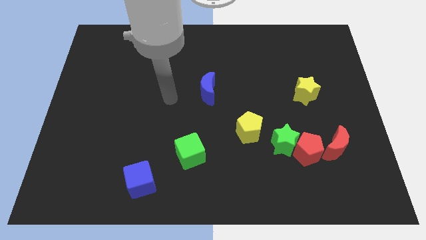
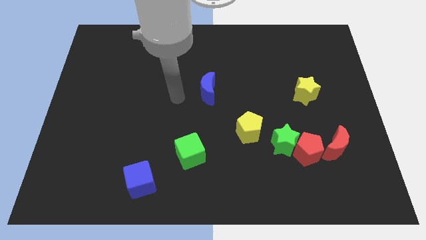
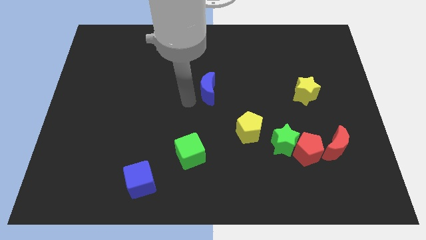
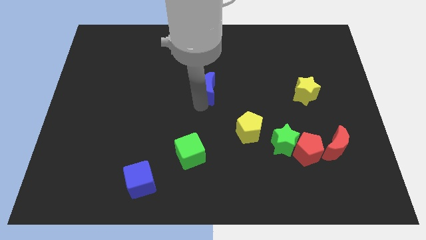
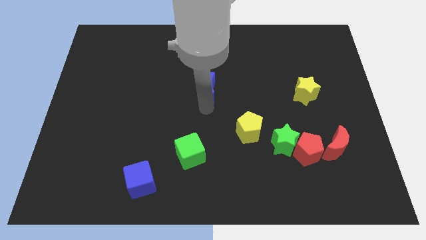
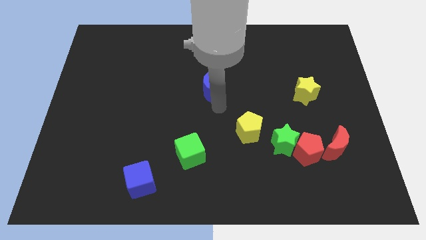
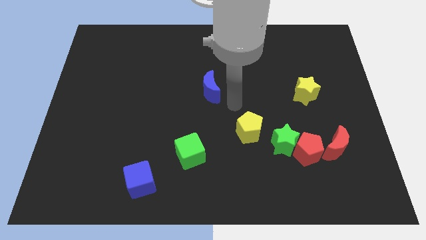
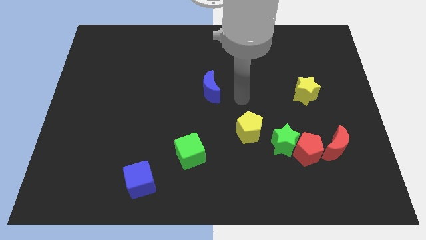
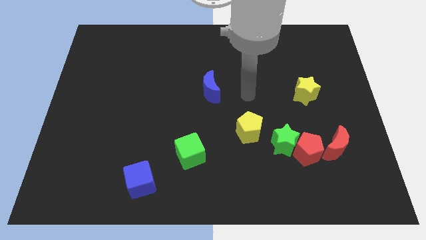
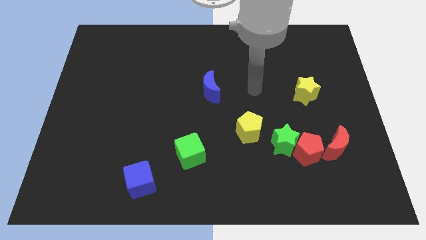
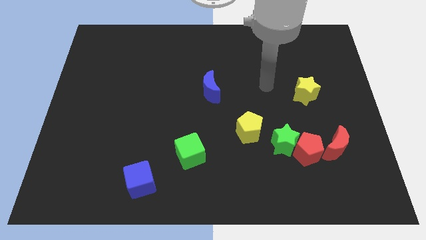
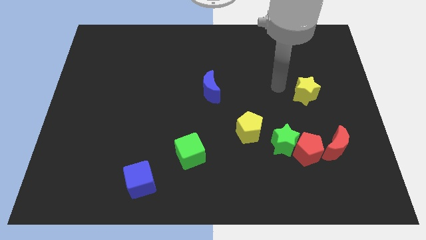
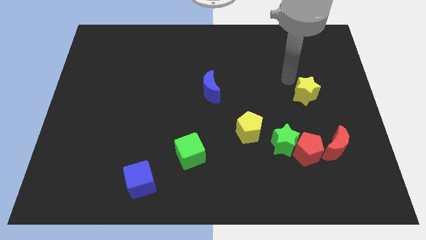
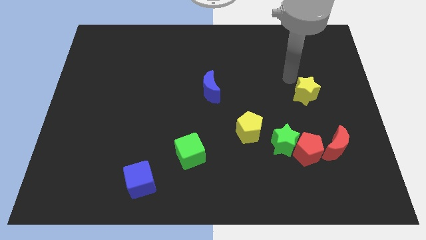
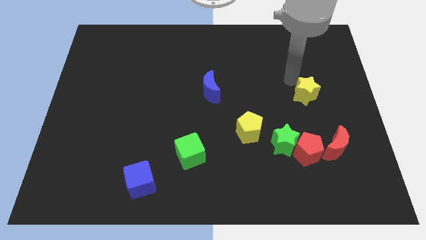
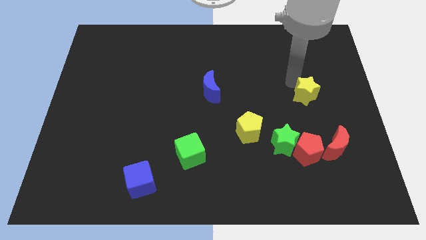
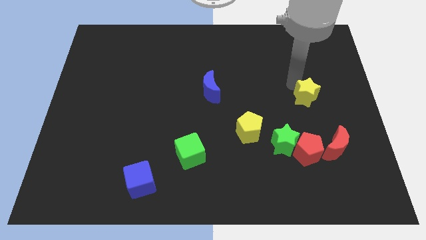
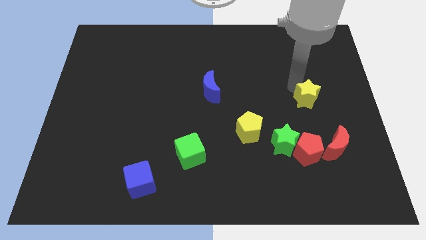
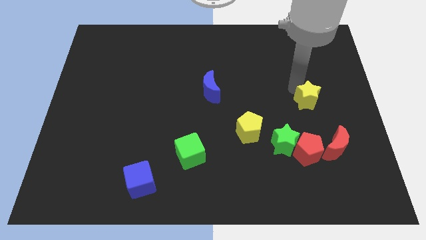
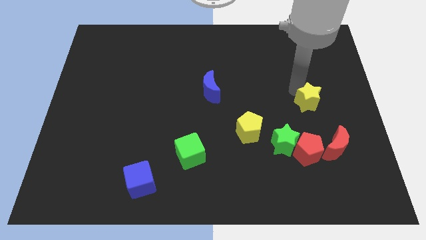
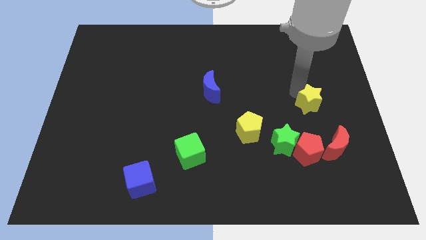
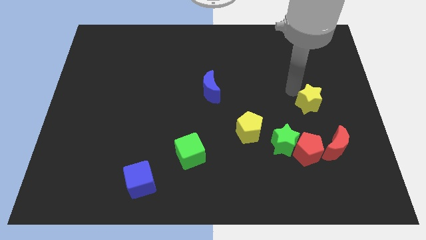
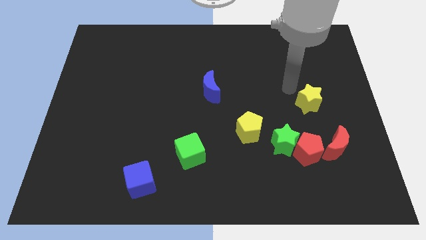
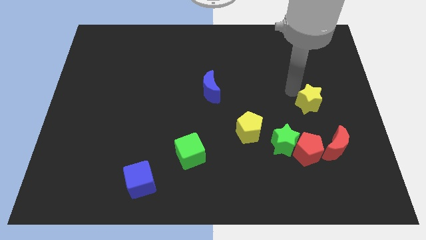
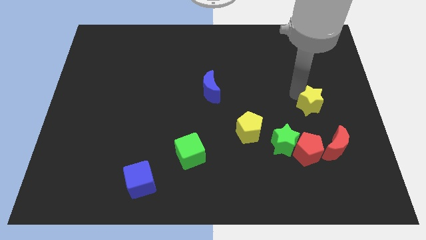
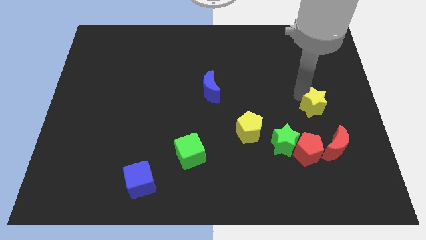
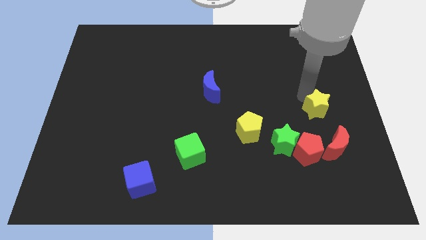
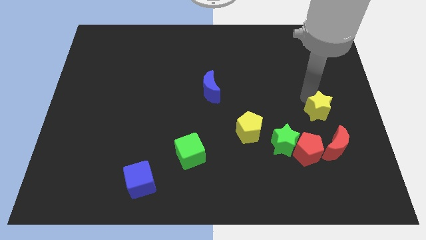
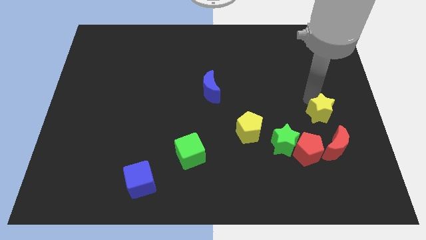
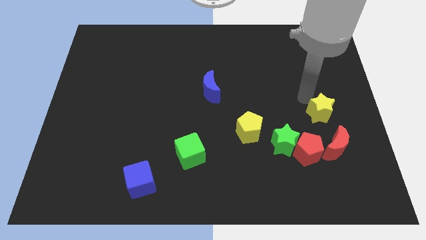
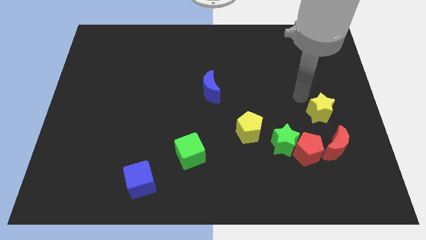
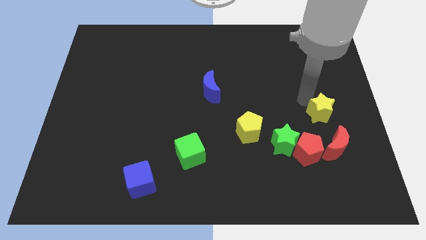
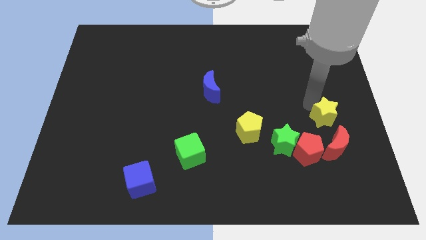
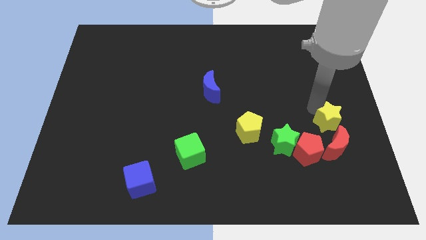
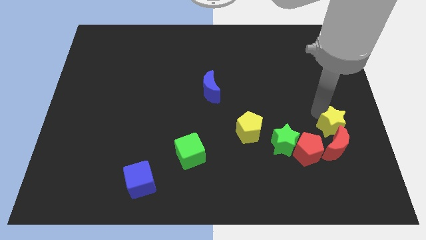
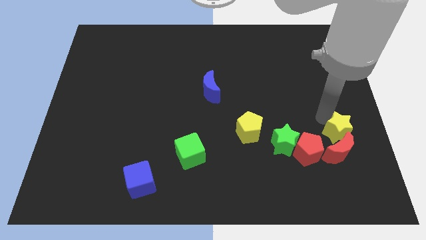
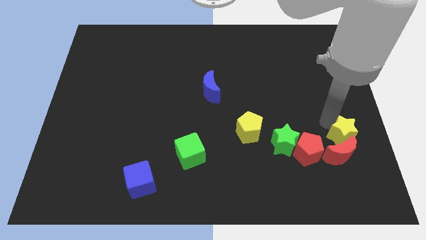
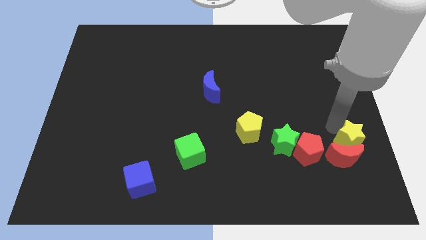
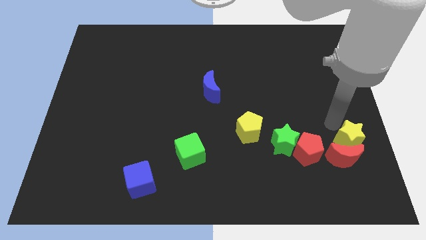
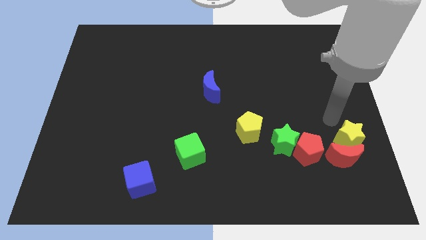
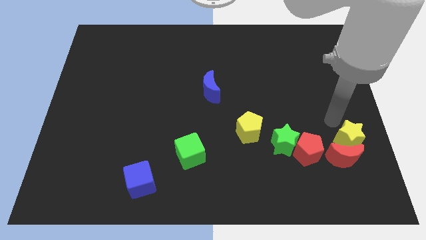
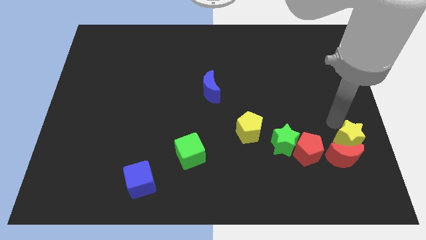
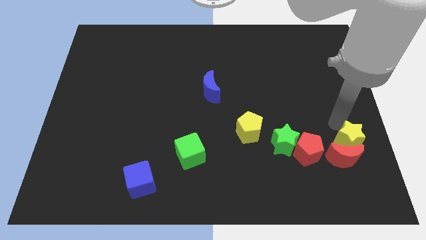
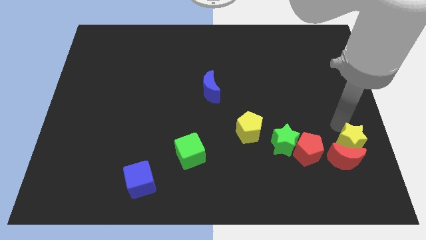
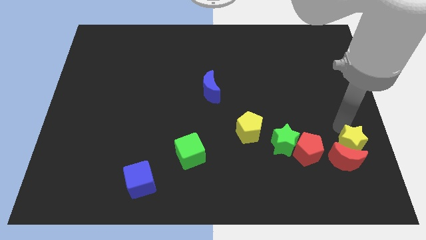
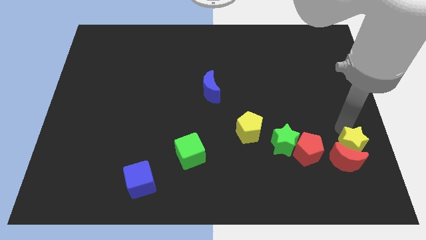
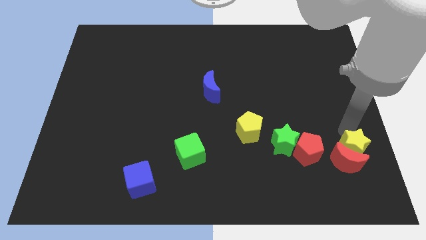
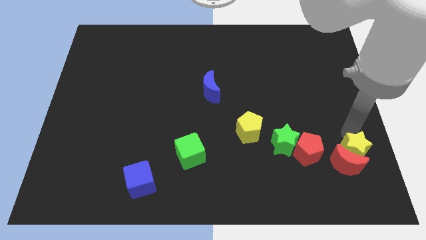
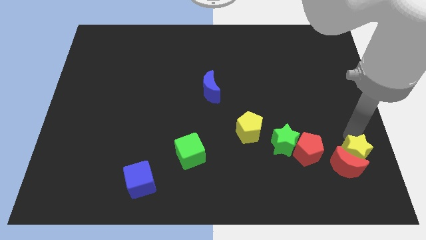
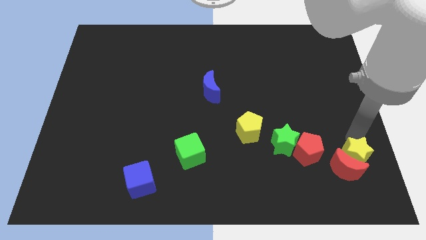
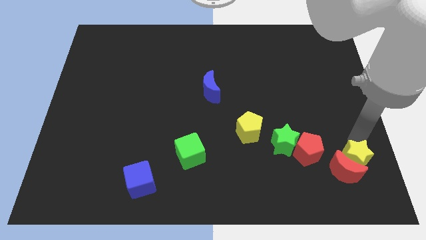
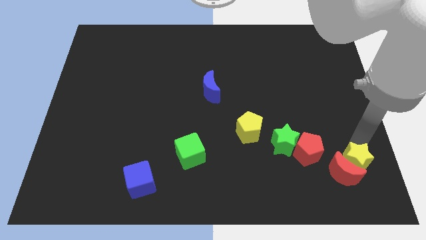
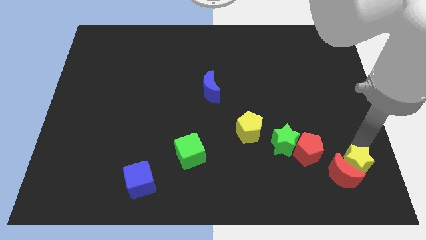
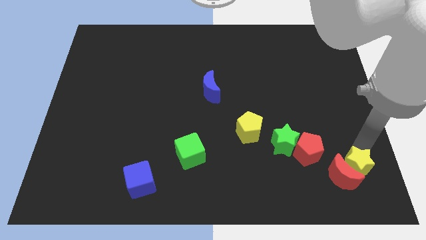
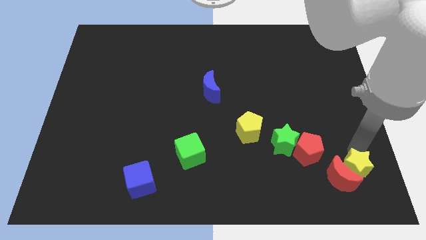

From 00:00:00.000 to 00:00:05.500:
slide the yellow star to the bottom right of the board

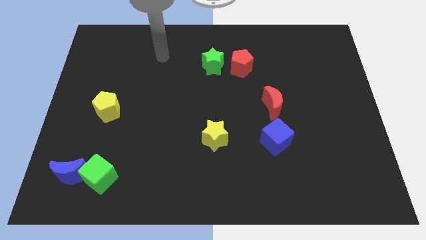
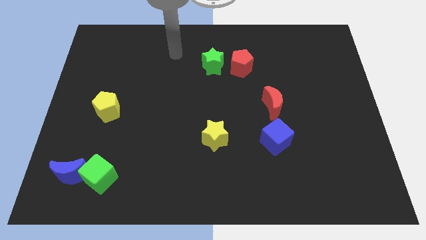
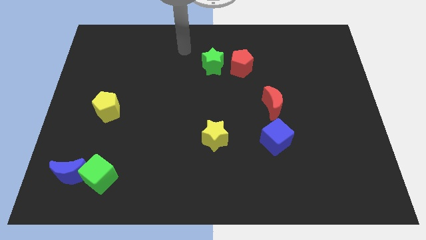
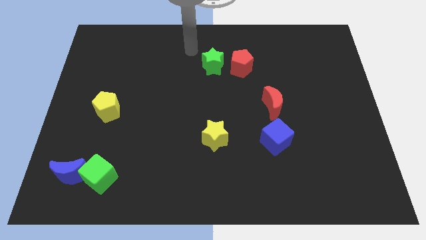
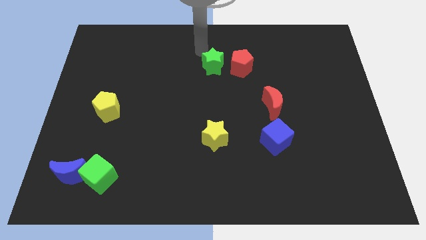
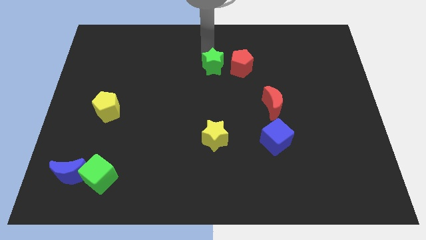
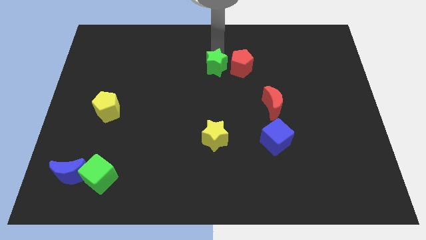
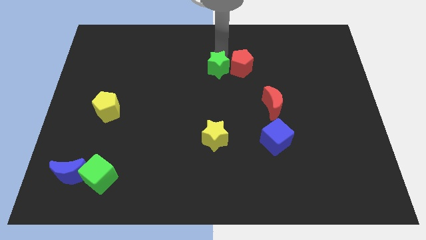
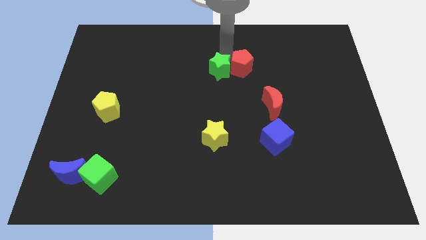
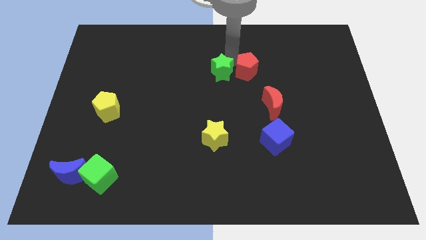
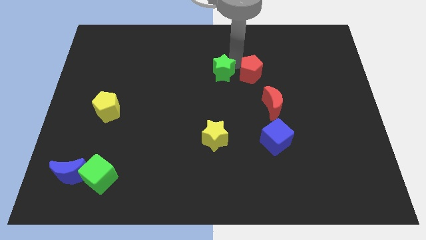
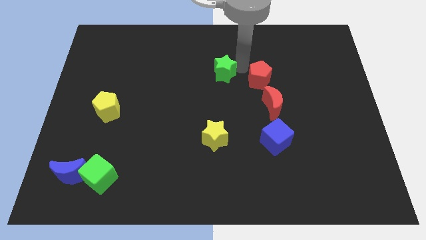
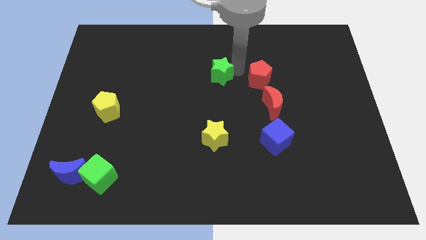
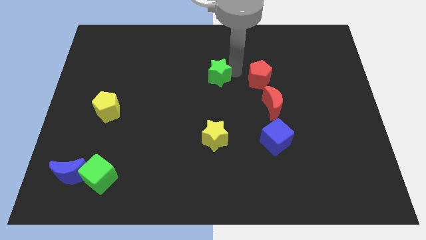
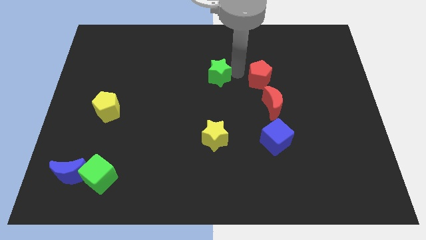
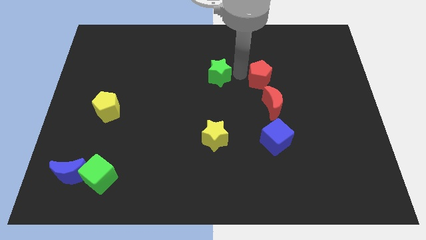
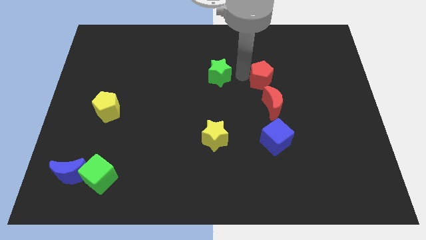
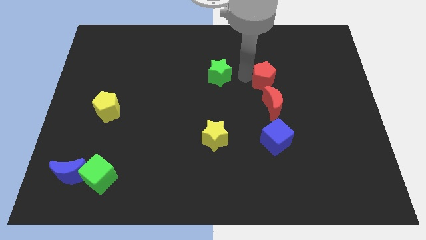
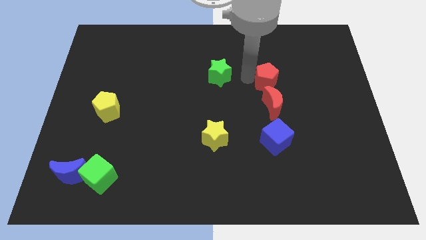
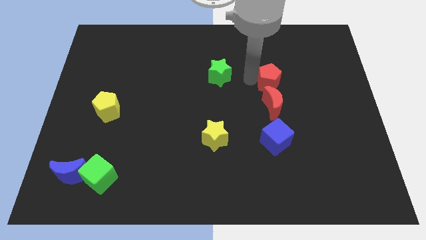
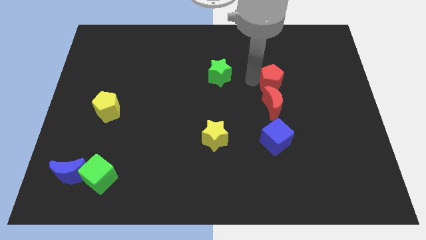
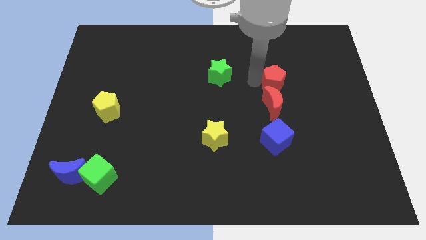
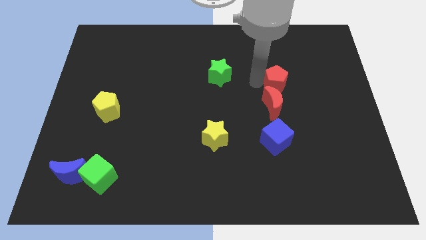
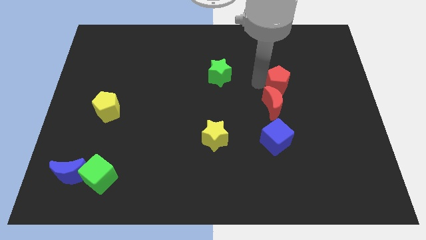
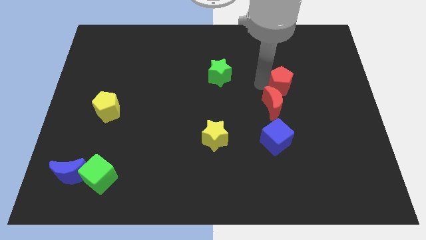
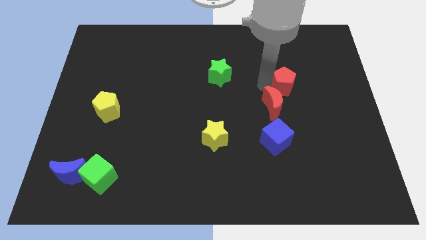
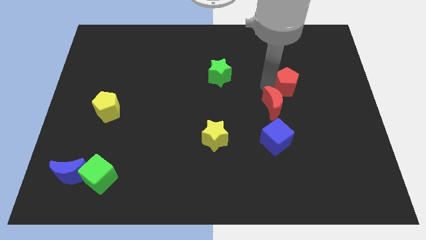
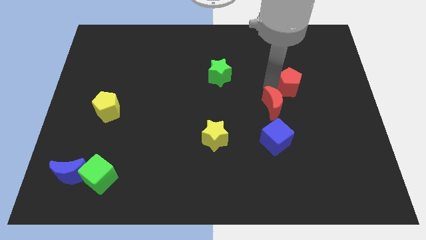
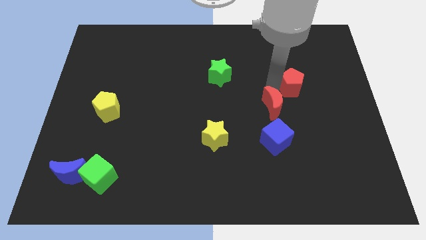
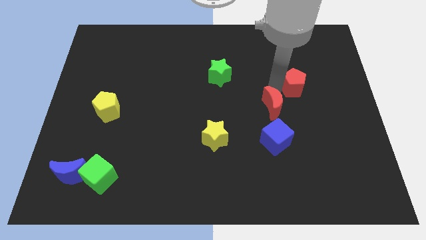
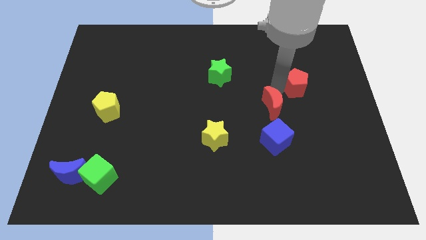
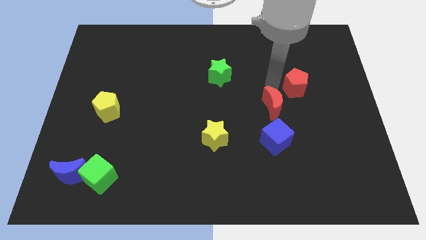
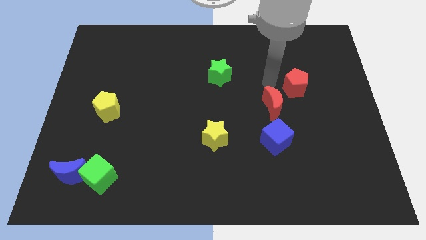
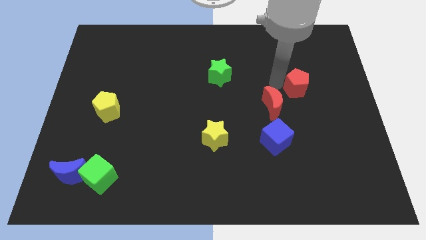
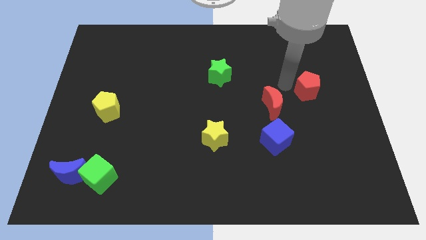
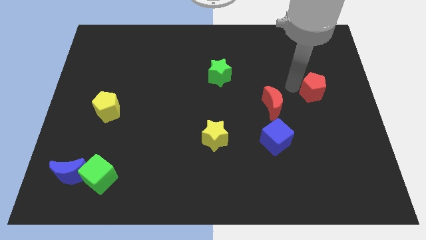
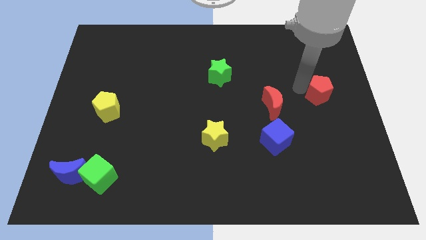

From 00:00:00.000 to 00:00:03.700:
slide the red pentagon to the right side of the board
